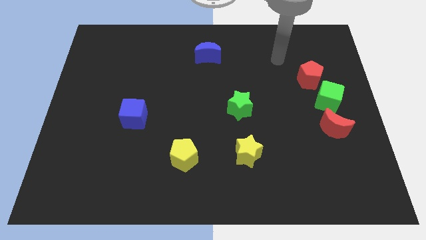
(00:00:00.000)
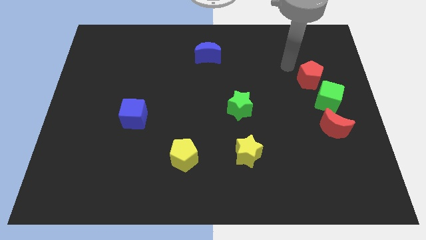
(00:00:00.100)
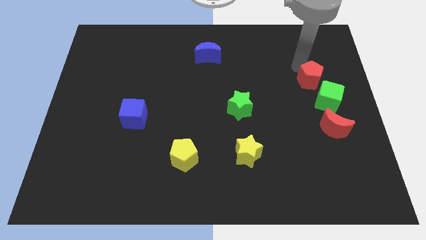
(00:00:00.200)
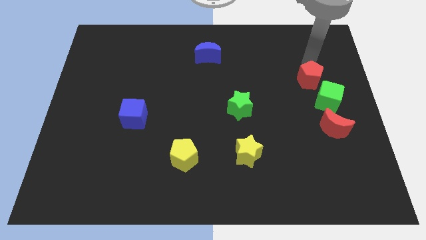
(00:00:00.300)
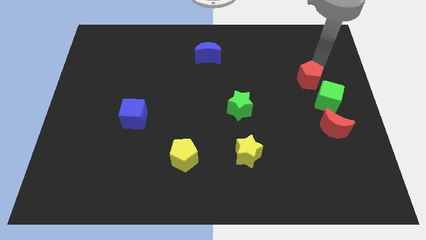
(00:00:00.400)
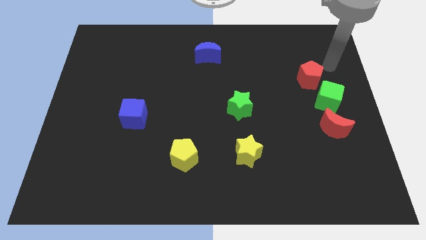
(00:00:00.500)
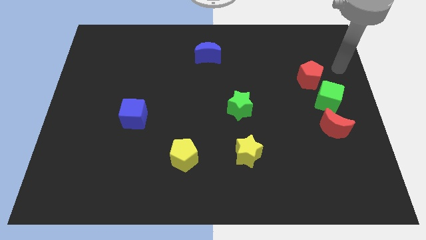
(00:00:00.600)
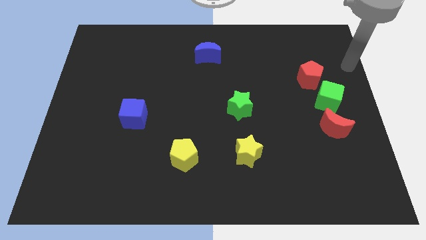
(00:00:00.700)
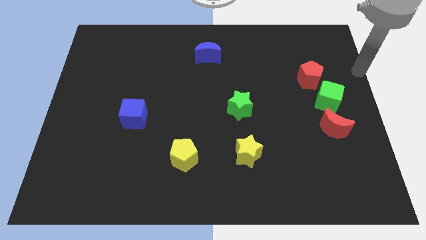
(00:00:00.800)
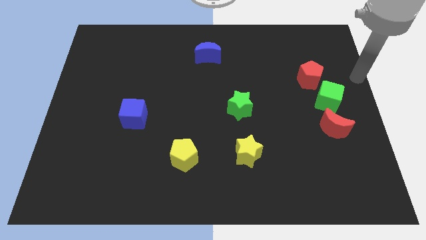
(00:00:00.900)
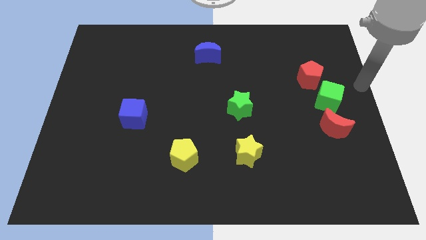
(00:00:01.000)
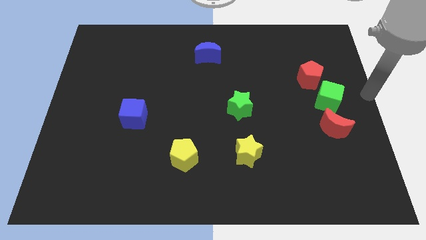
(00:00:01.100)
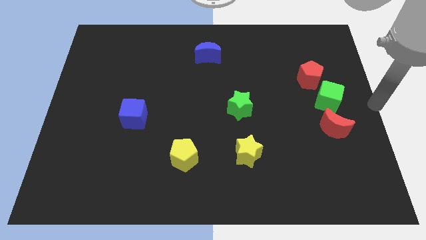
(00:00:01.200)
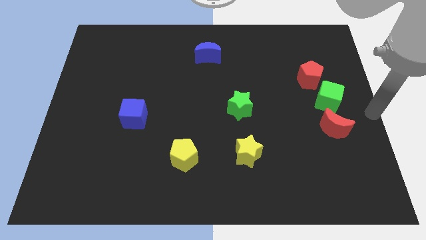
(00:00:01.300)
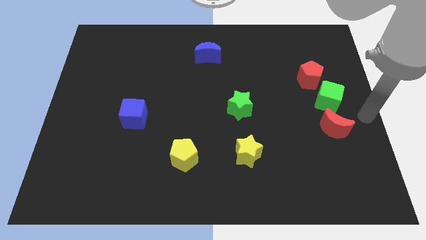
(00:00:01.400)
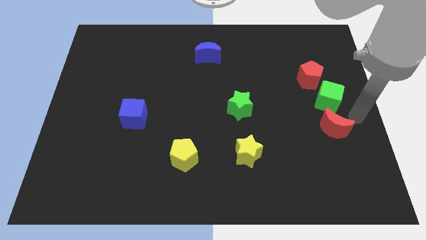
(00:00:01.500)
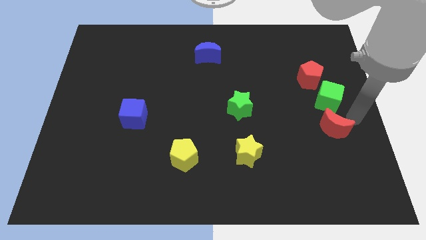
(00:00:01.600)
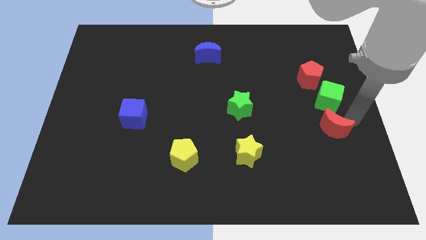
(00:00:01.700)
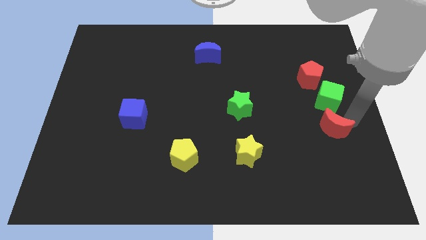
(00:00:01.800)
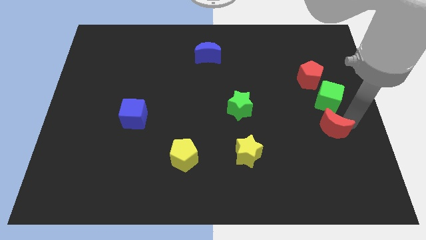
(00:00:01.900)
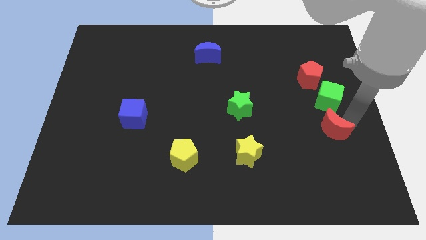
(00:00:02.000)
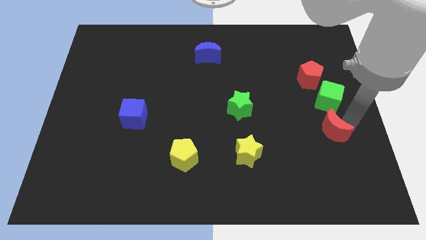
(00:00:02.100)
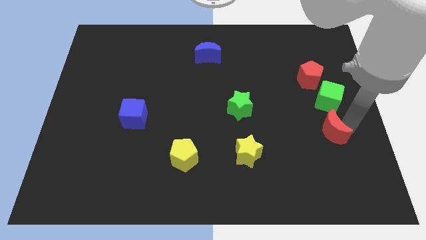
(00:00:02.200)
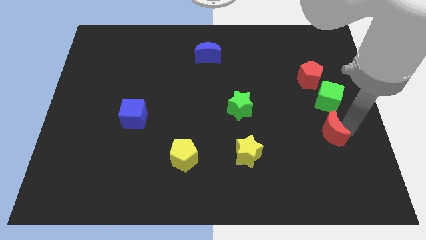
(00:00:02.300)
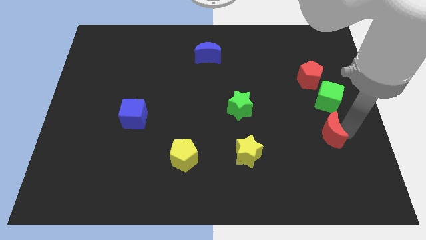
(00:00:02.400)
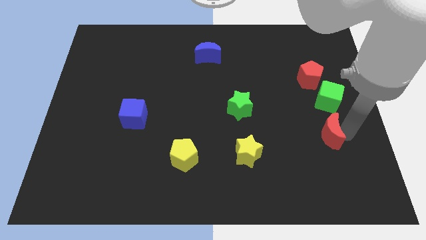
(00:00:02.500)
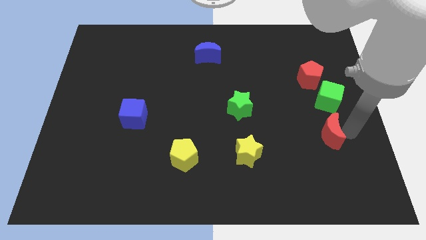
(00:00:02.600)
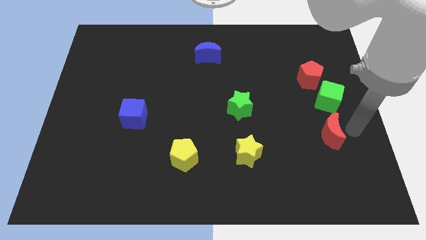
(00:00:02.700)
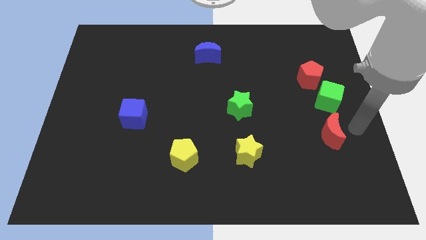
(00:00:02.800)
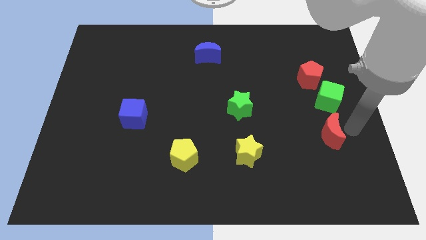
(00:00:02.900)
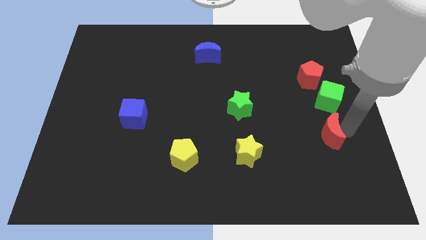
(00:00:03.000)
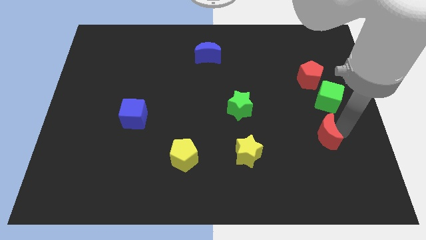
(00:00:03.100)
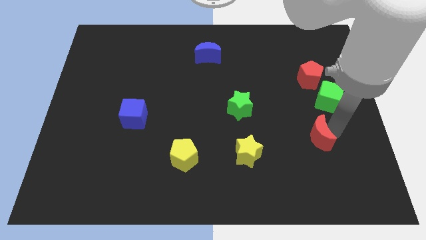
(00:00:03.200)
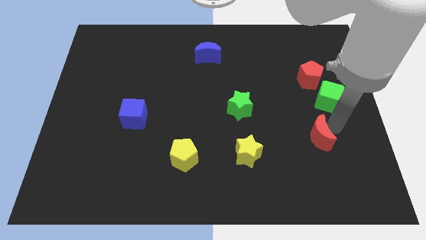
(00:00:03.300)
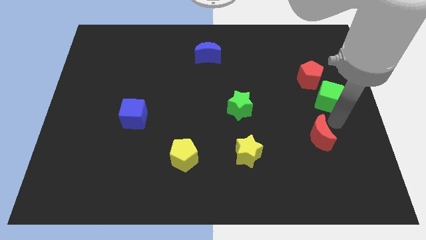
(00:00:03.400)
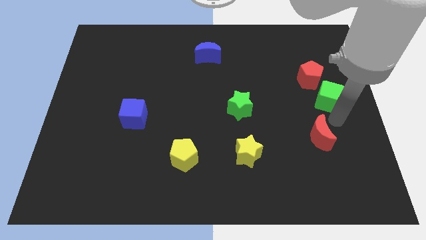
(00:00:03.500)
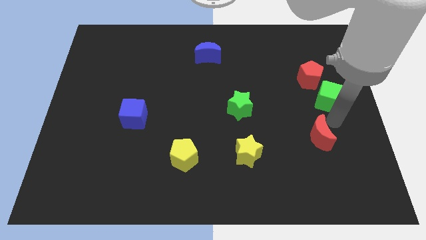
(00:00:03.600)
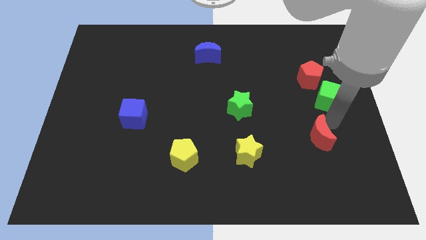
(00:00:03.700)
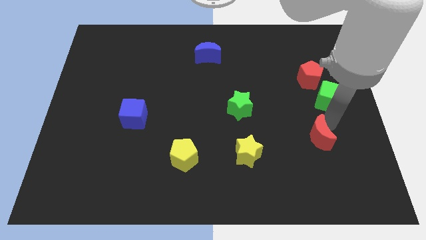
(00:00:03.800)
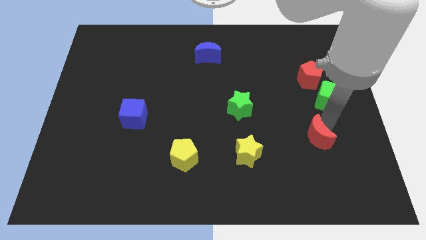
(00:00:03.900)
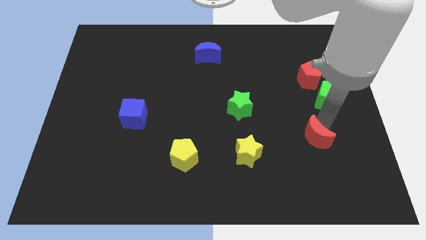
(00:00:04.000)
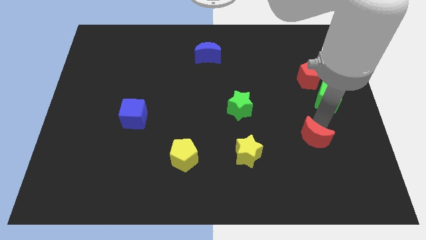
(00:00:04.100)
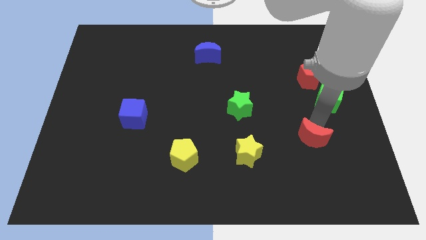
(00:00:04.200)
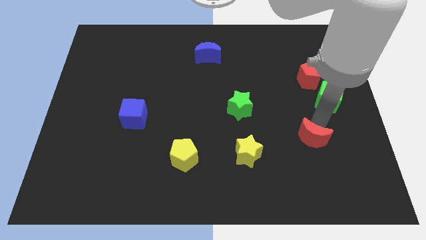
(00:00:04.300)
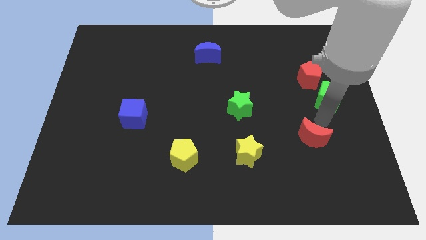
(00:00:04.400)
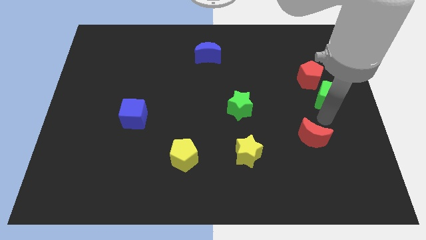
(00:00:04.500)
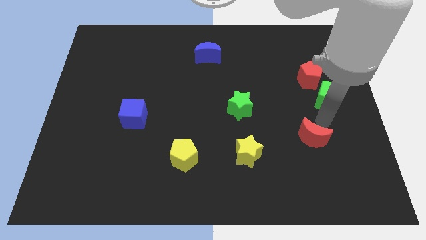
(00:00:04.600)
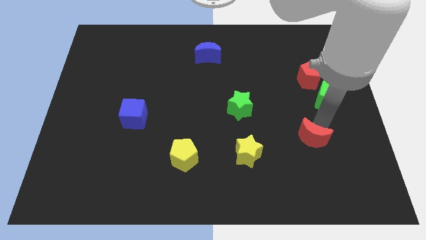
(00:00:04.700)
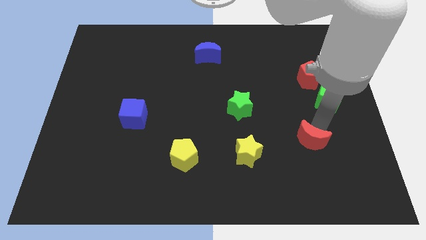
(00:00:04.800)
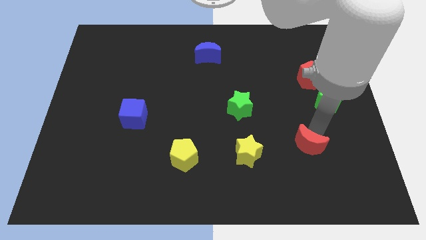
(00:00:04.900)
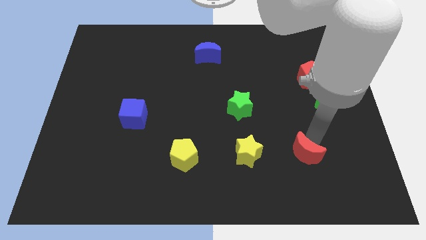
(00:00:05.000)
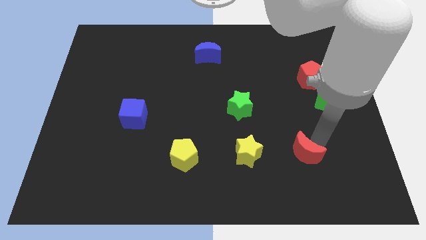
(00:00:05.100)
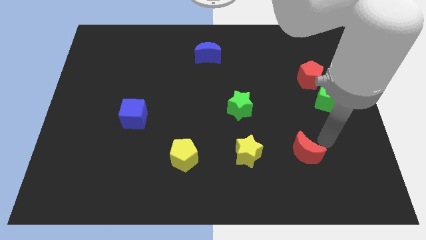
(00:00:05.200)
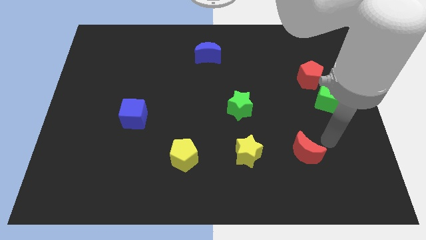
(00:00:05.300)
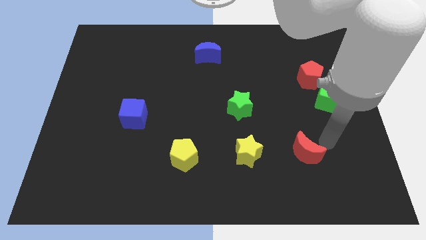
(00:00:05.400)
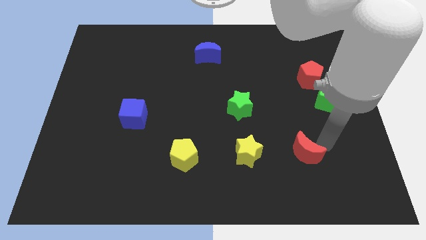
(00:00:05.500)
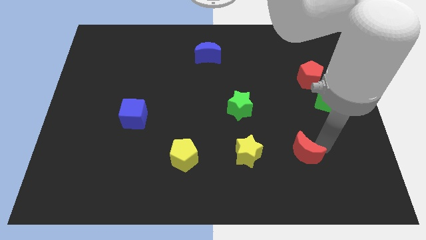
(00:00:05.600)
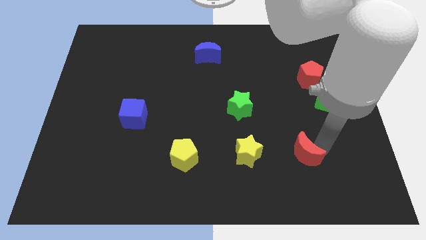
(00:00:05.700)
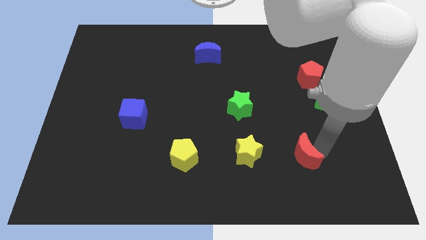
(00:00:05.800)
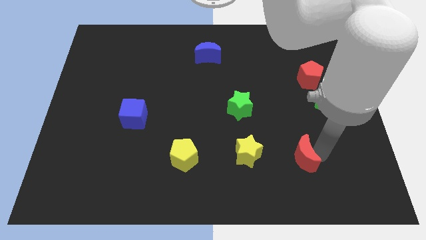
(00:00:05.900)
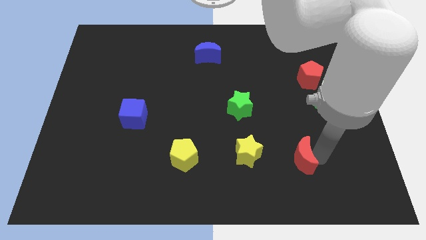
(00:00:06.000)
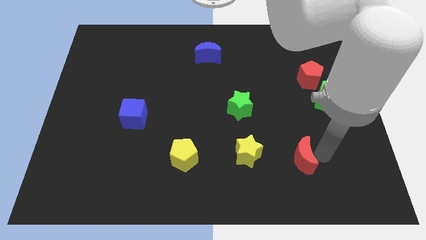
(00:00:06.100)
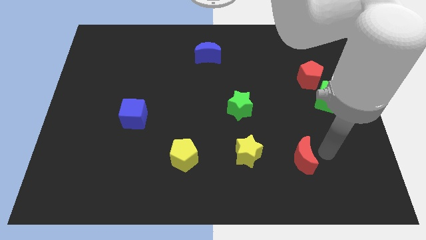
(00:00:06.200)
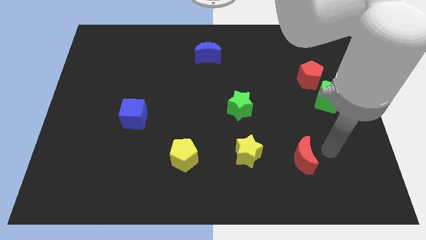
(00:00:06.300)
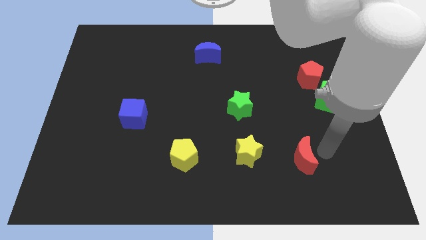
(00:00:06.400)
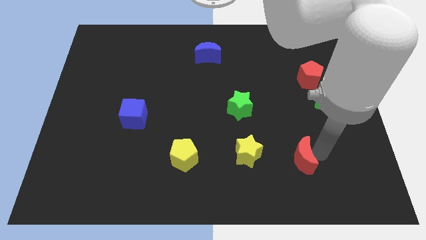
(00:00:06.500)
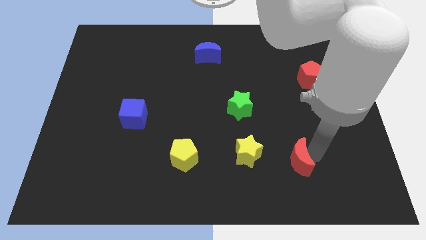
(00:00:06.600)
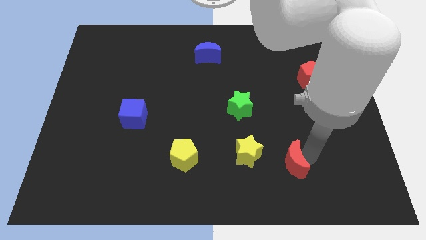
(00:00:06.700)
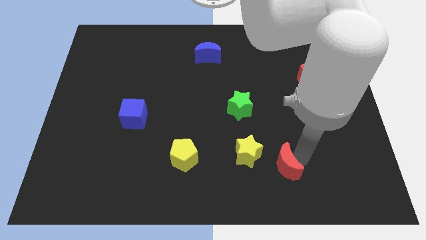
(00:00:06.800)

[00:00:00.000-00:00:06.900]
slide the red moon to the bottom right of the yellow star
